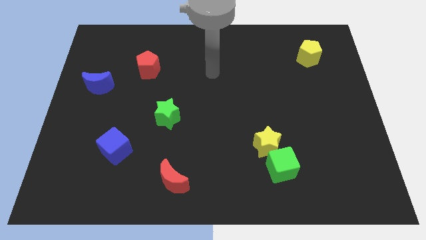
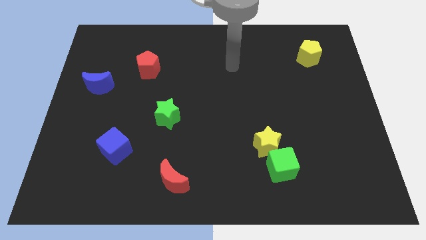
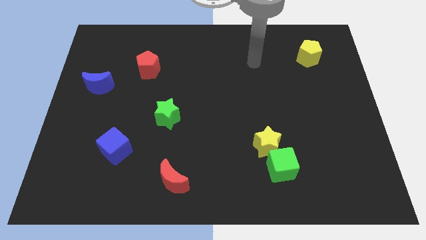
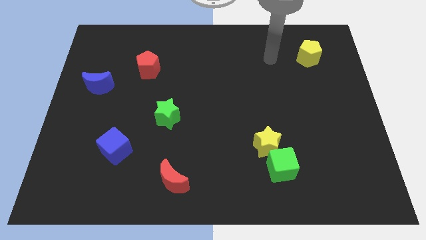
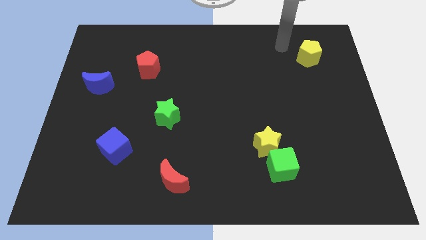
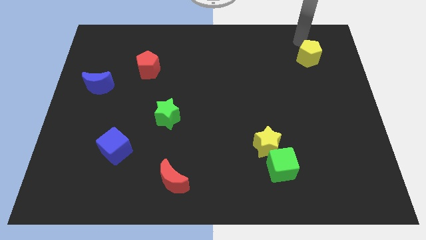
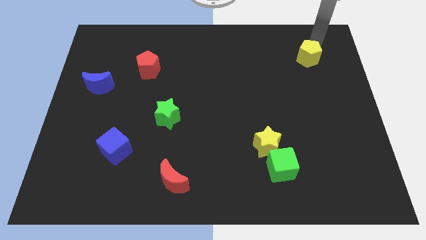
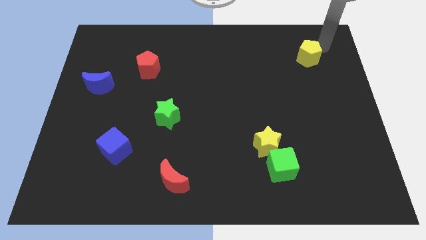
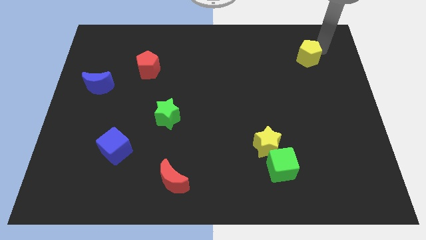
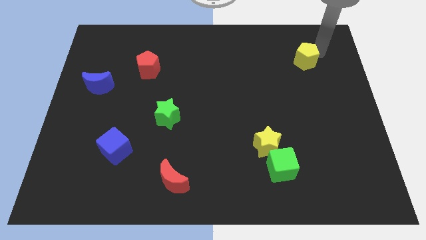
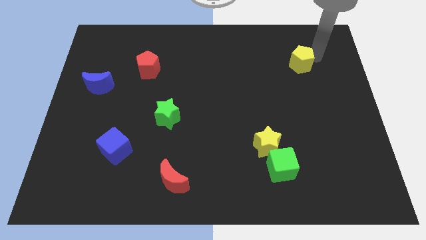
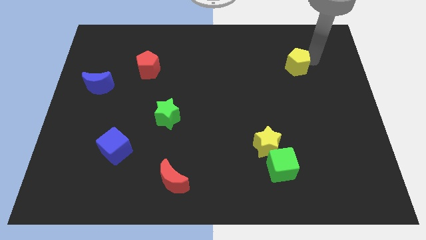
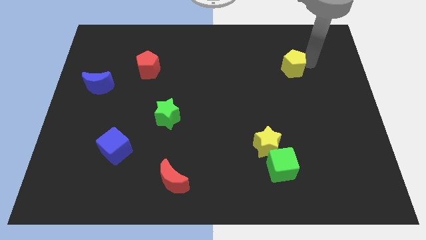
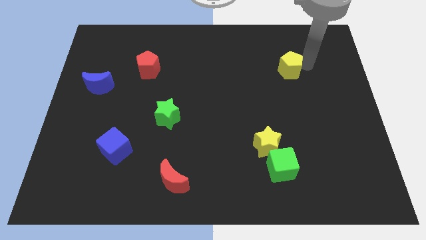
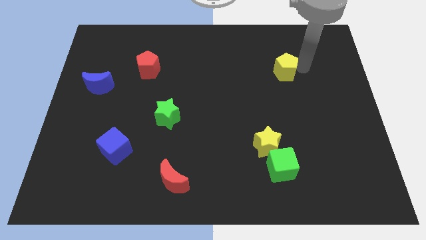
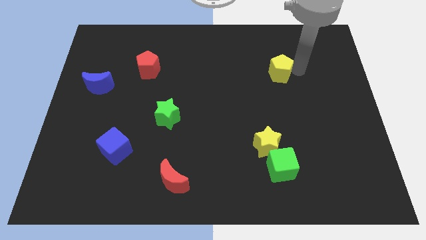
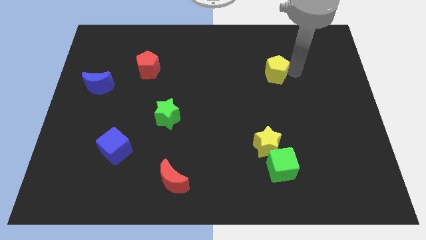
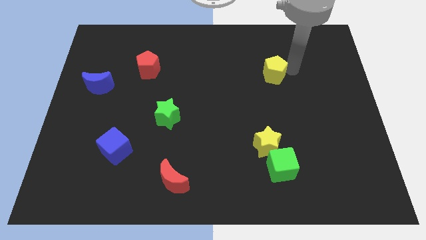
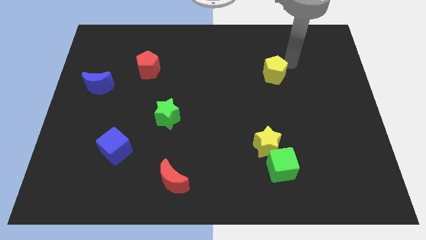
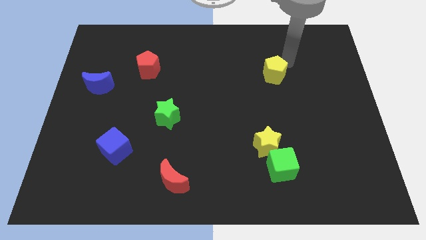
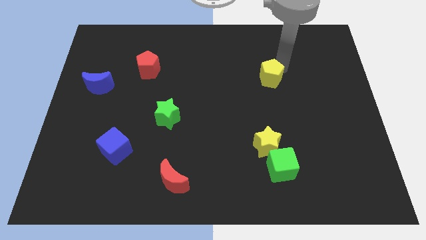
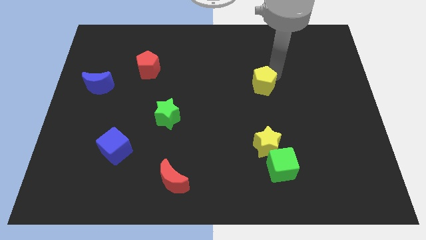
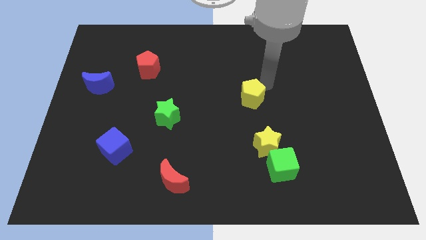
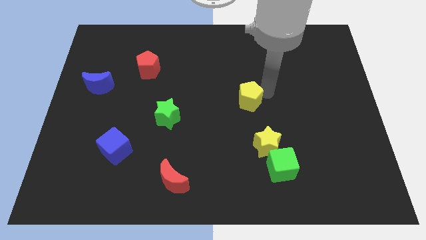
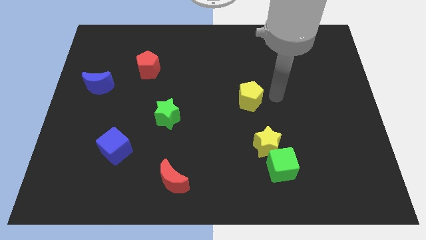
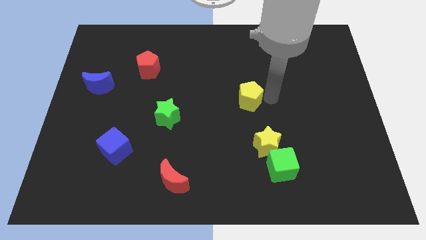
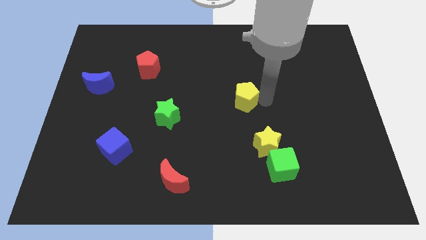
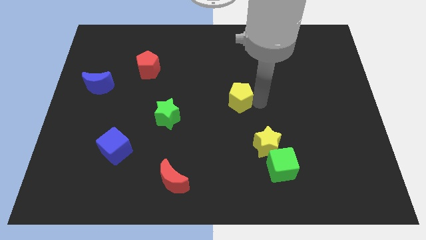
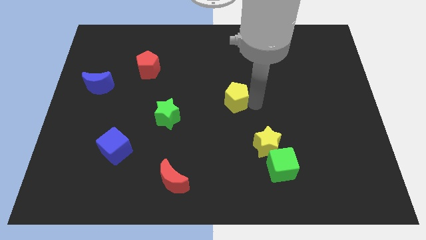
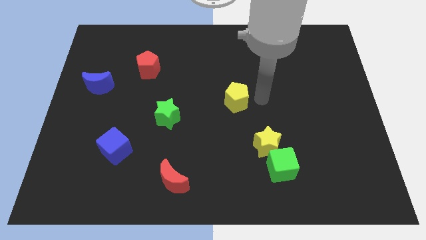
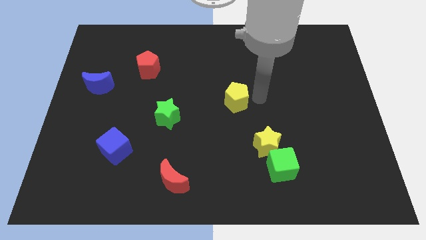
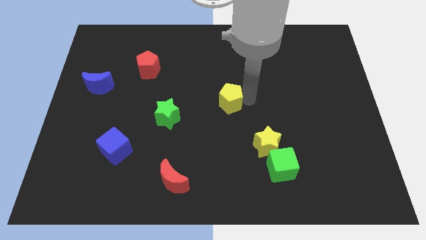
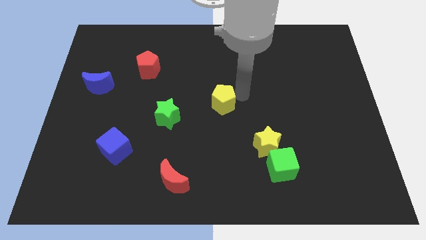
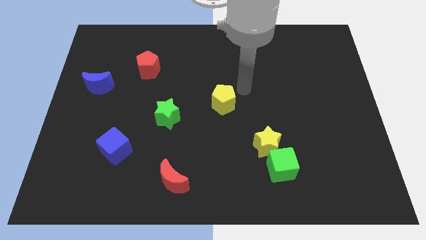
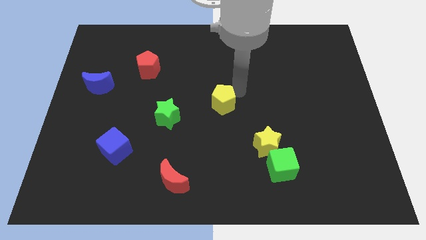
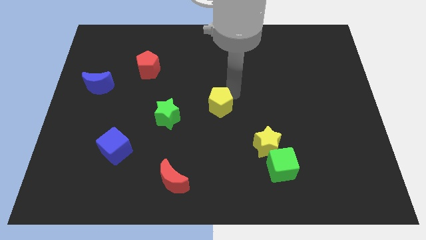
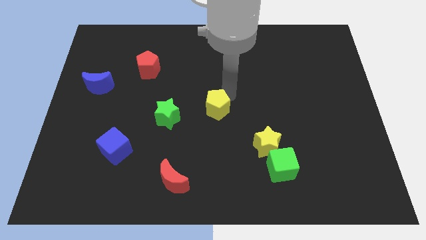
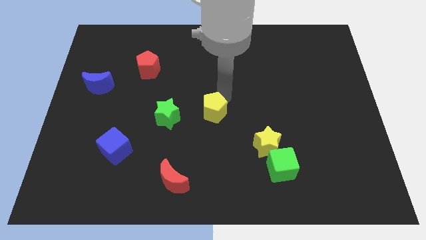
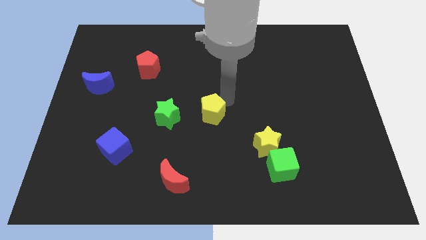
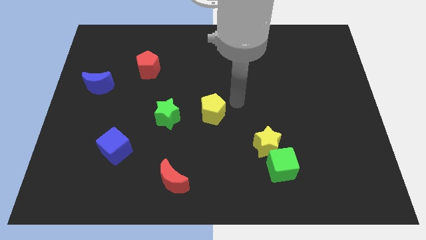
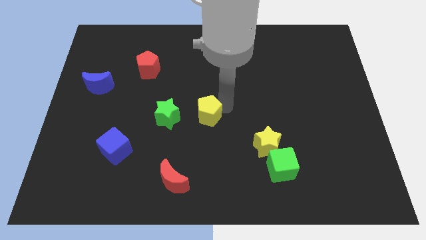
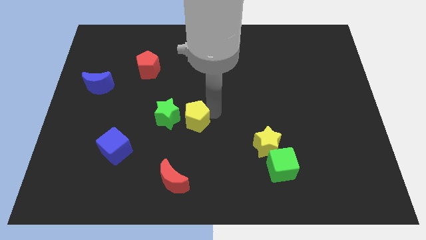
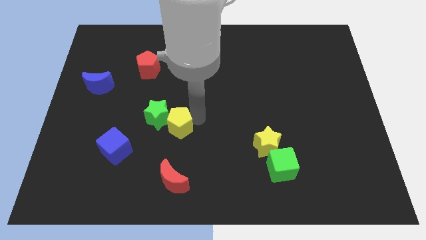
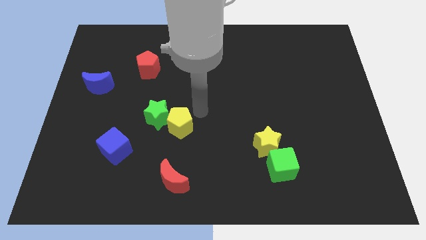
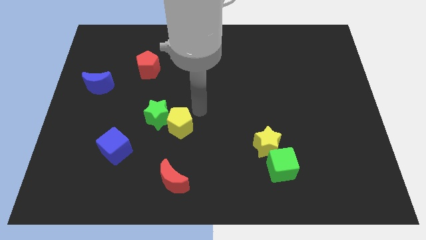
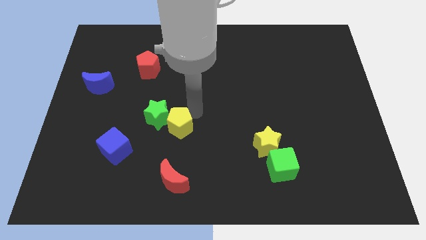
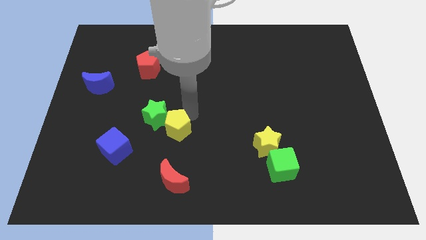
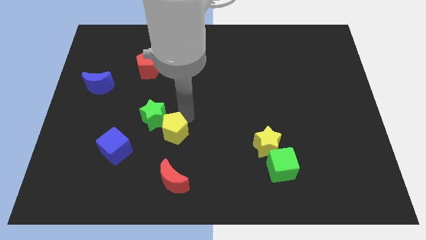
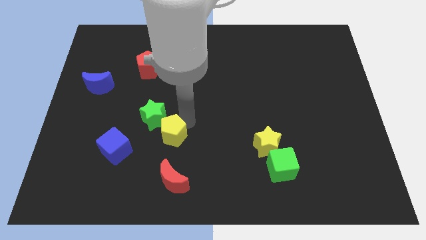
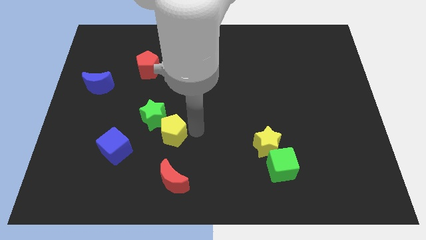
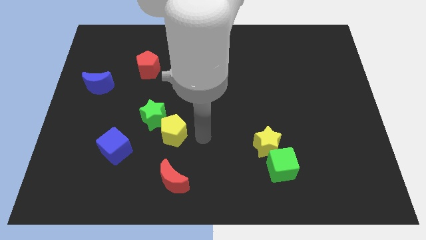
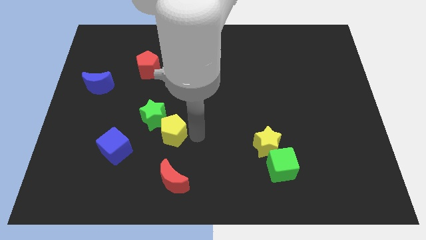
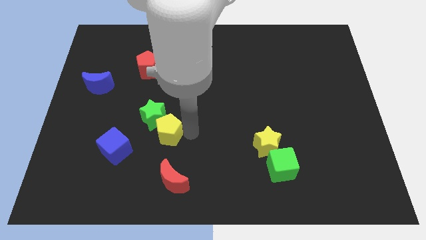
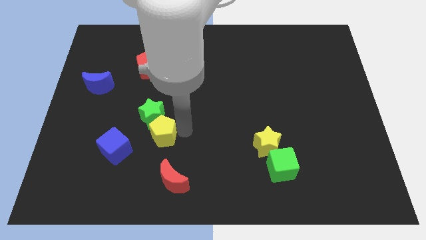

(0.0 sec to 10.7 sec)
push the yellow pentagon to the top right side of the blue cube

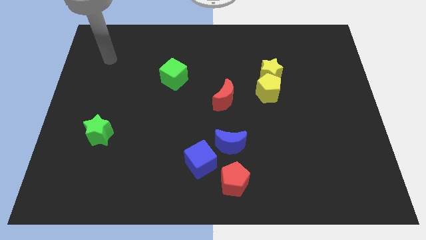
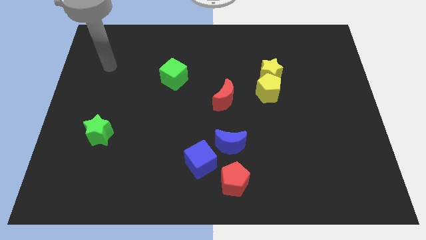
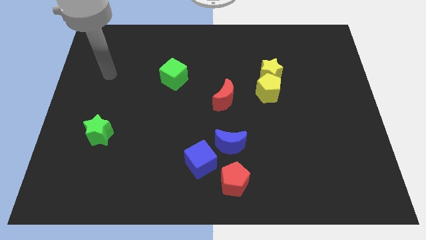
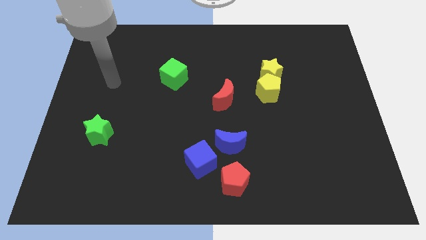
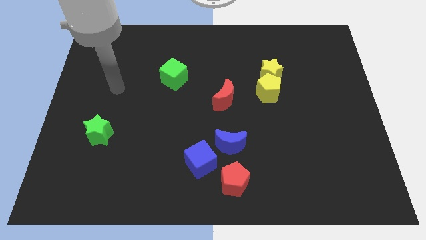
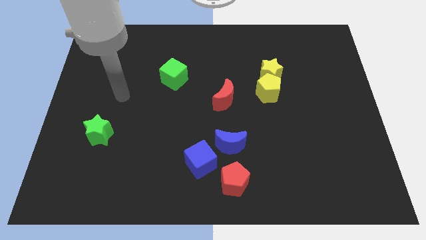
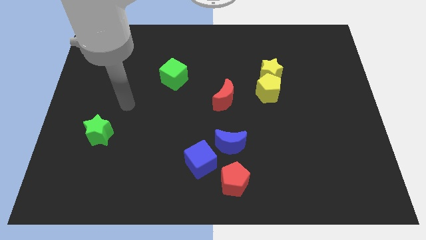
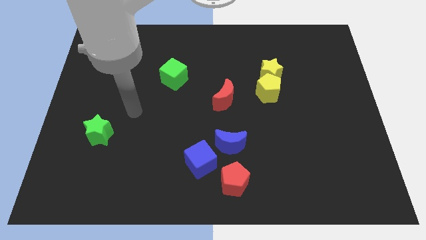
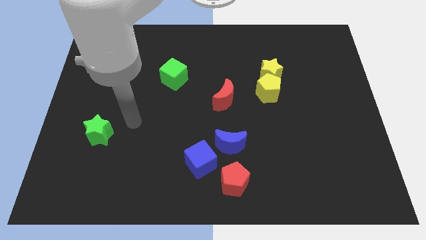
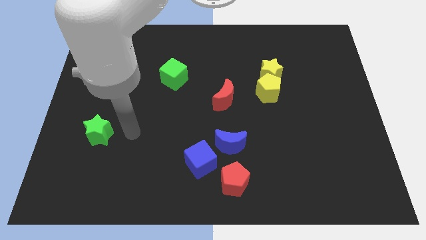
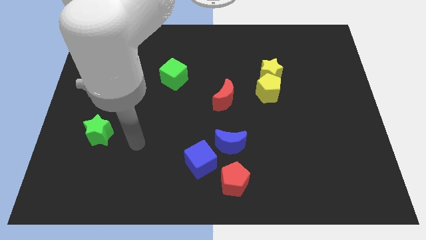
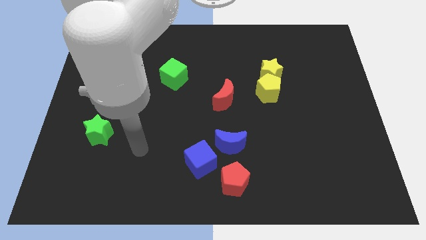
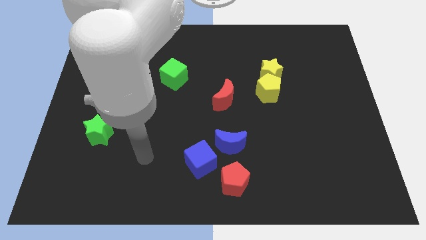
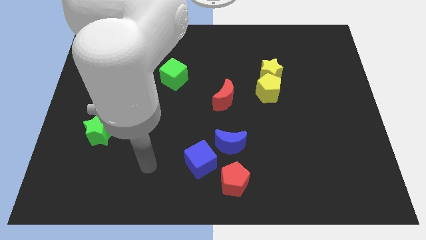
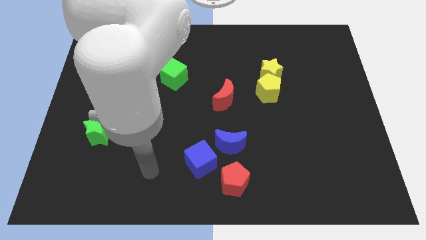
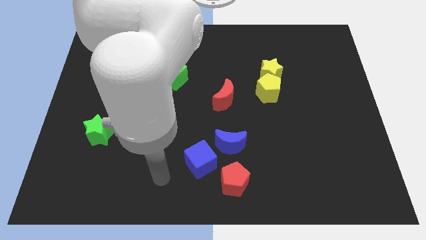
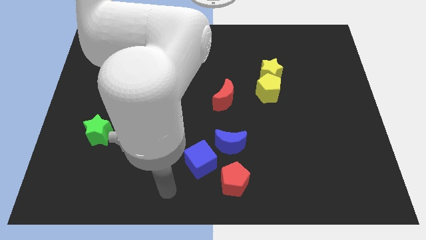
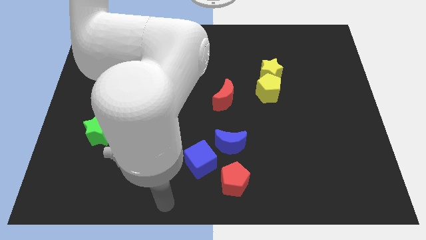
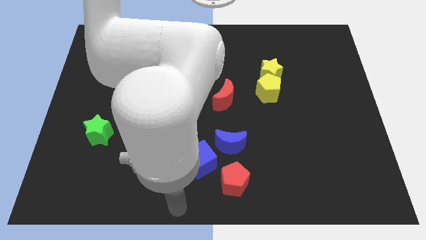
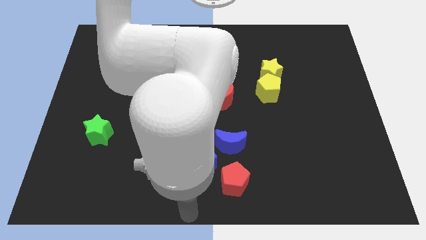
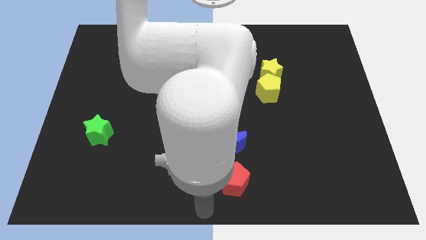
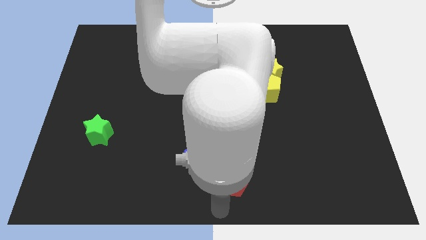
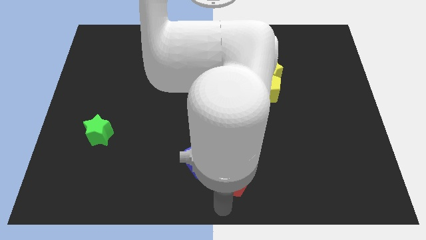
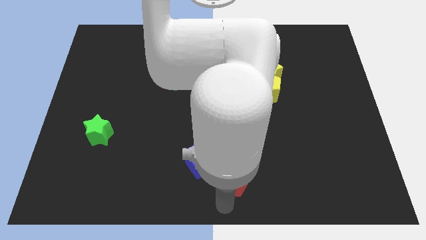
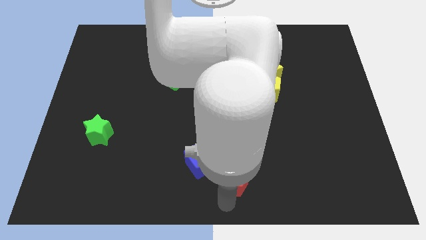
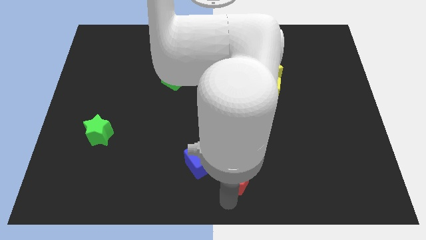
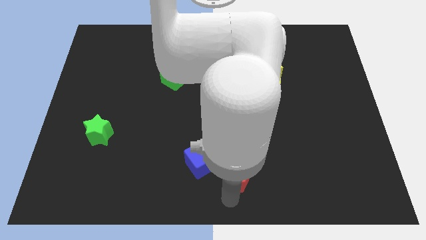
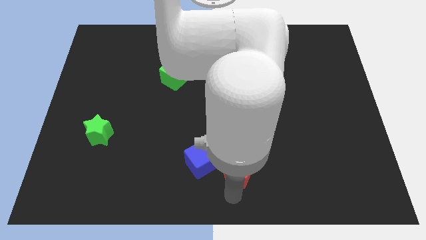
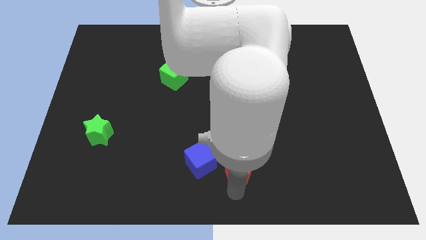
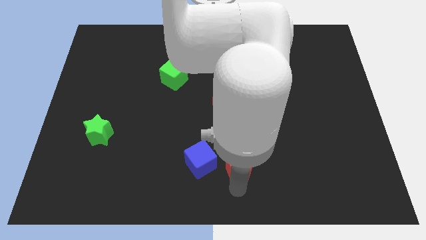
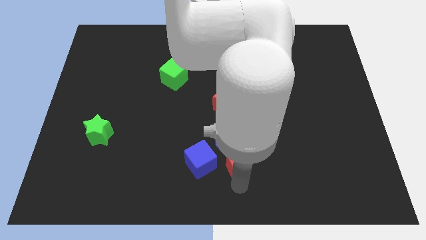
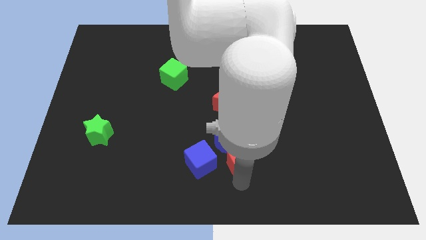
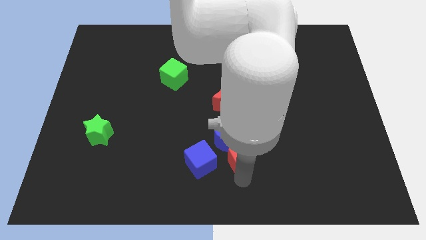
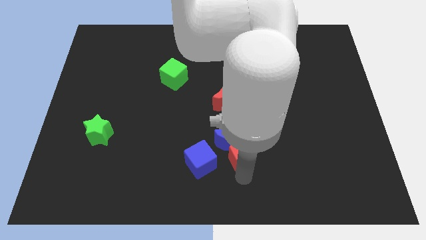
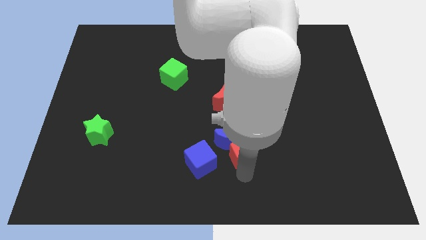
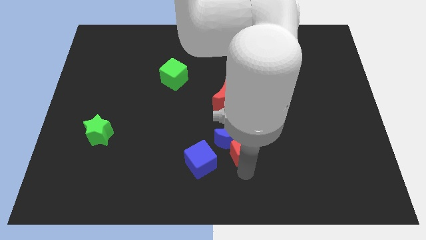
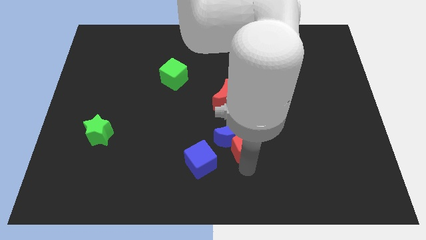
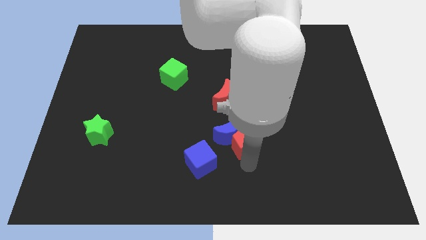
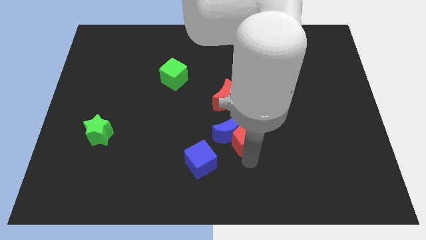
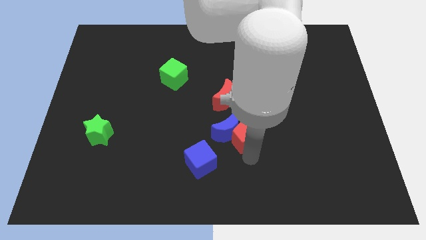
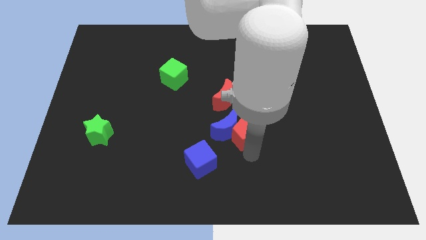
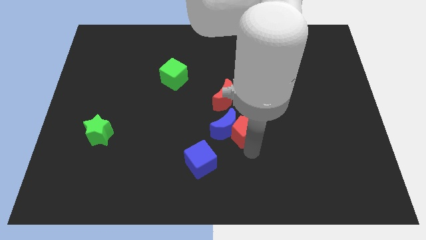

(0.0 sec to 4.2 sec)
slide the red pentagon to the bottom right of the red moon
